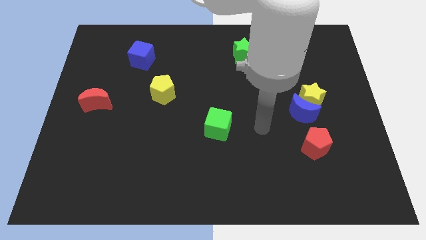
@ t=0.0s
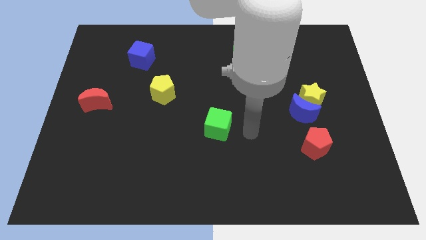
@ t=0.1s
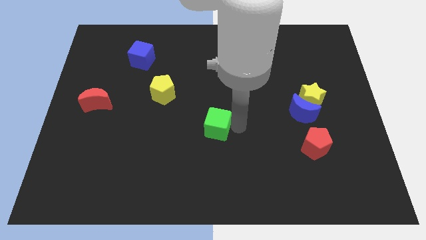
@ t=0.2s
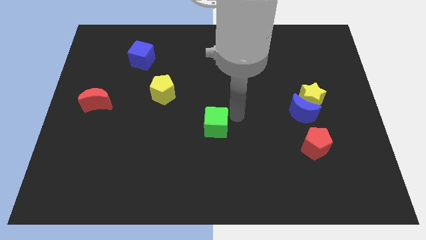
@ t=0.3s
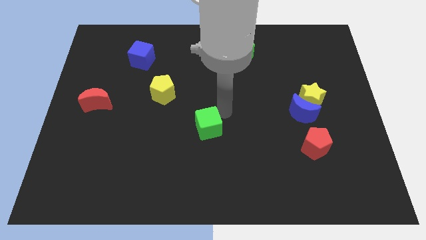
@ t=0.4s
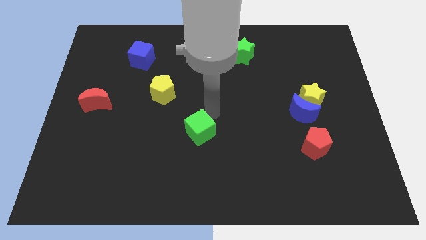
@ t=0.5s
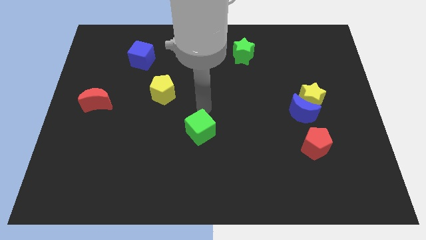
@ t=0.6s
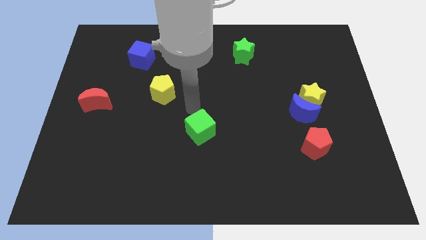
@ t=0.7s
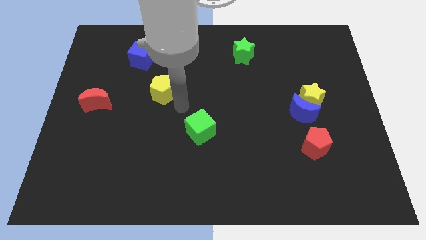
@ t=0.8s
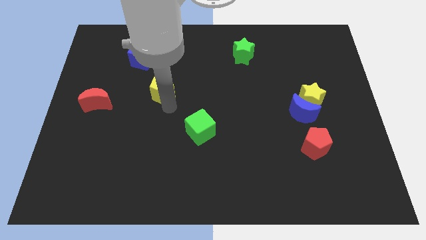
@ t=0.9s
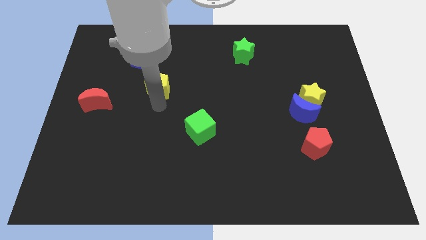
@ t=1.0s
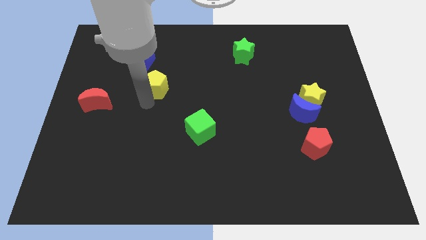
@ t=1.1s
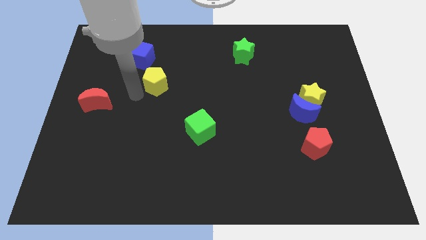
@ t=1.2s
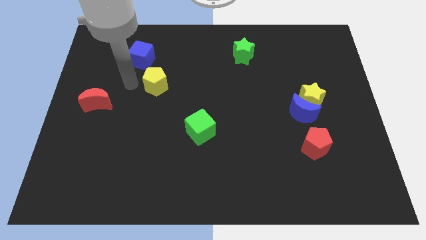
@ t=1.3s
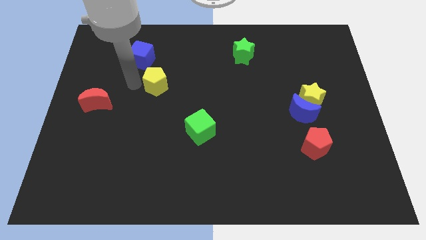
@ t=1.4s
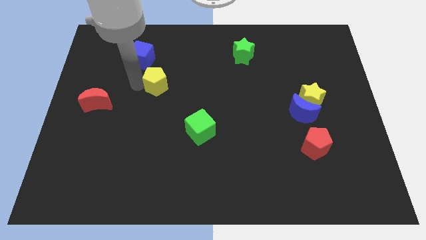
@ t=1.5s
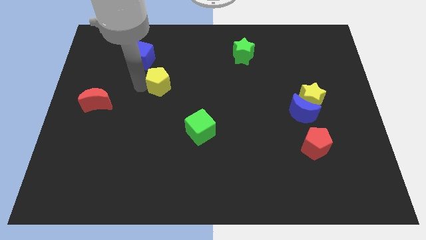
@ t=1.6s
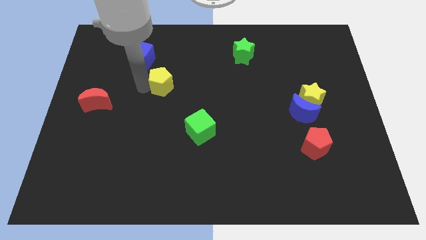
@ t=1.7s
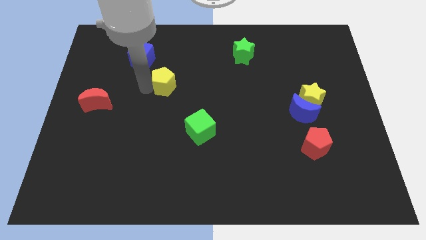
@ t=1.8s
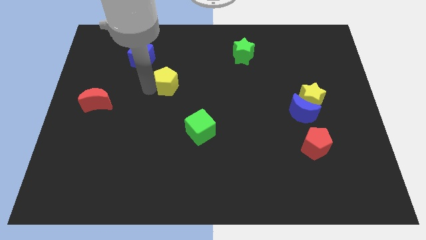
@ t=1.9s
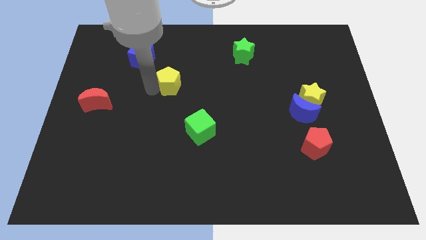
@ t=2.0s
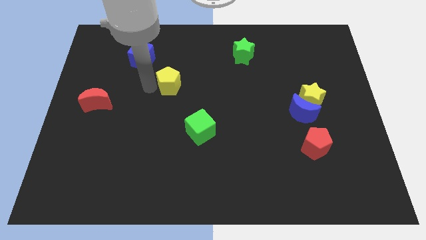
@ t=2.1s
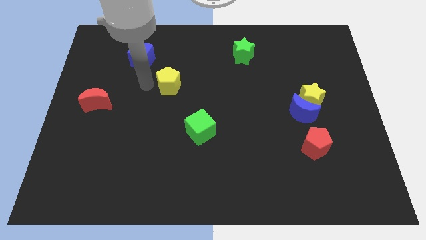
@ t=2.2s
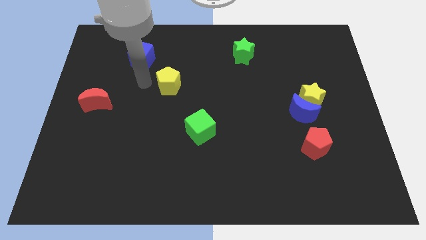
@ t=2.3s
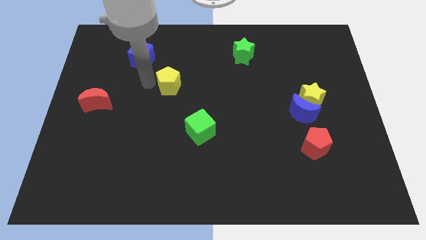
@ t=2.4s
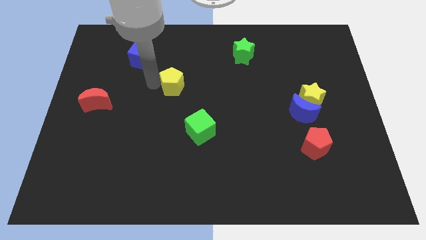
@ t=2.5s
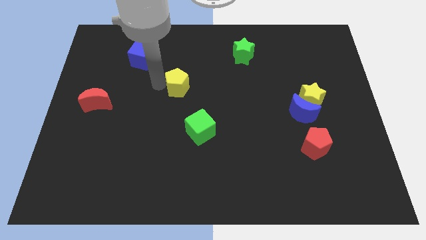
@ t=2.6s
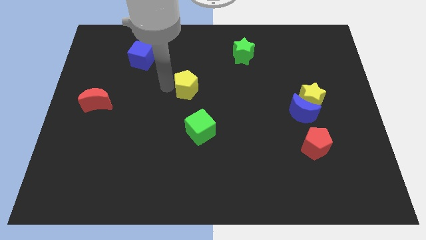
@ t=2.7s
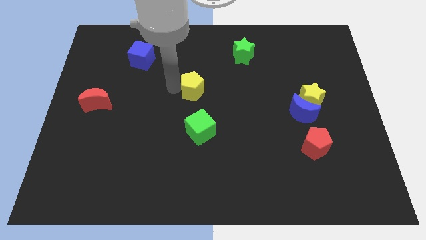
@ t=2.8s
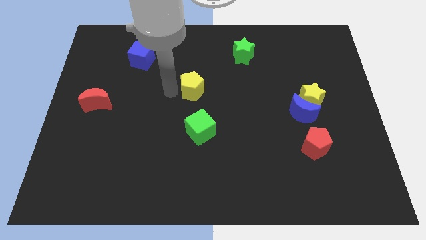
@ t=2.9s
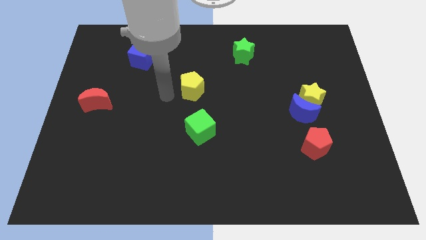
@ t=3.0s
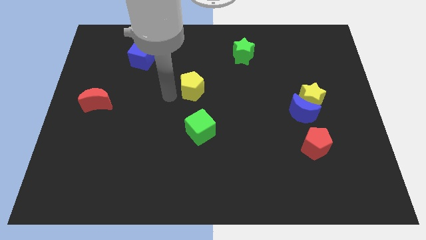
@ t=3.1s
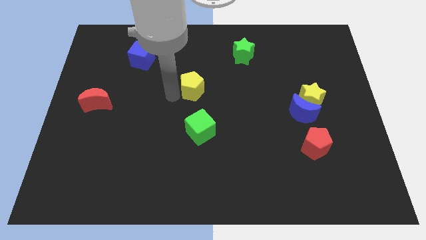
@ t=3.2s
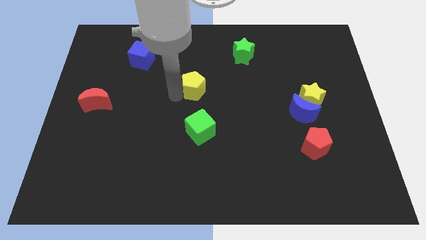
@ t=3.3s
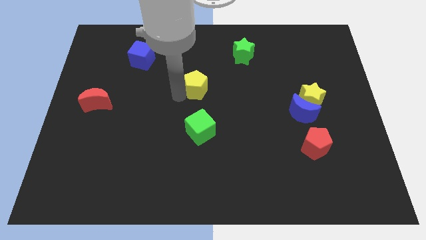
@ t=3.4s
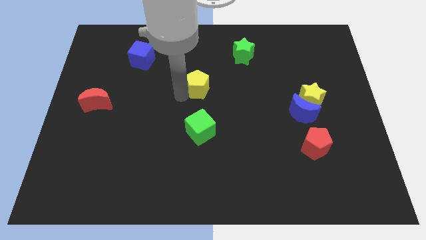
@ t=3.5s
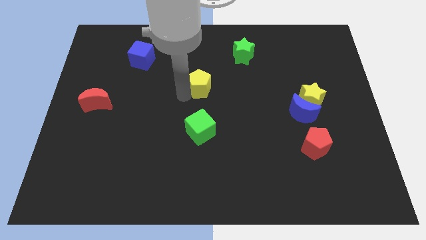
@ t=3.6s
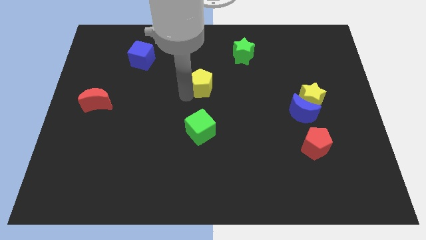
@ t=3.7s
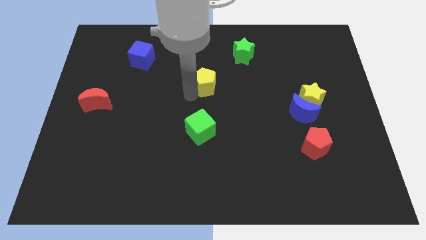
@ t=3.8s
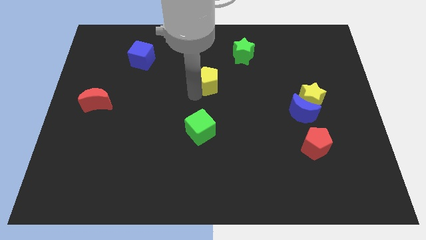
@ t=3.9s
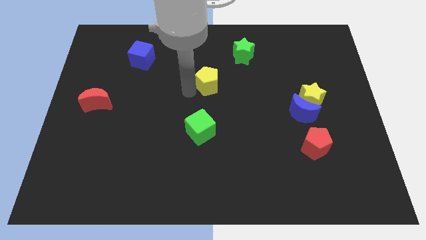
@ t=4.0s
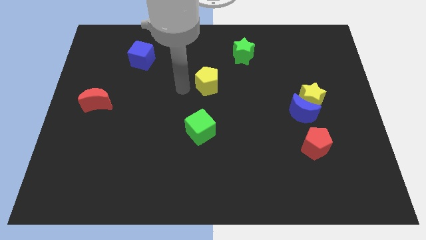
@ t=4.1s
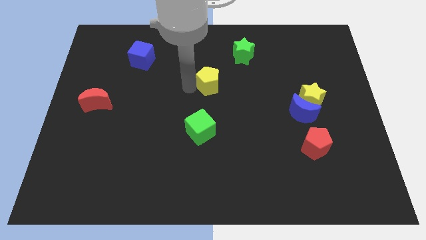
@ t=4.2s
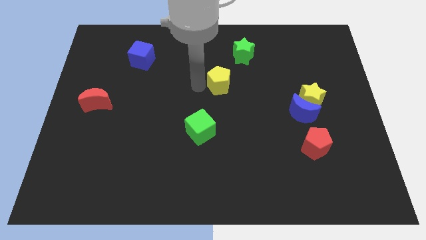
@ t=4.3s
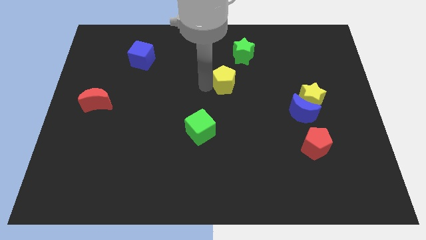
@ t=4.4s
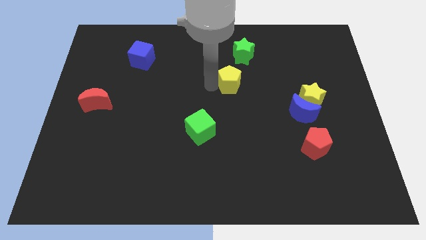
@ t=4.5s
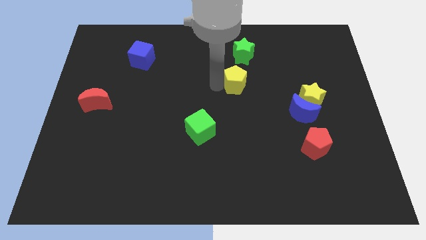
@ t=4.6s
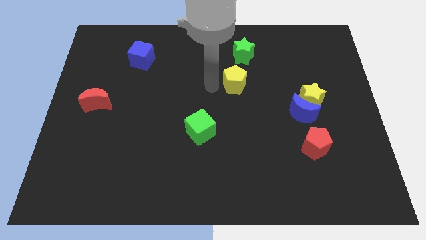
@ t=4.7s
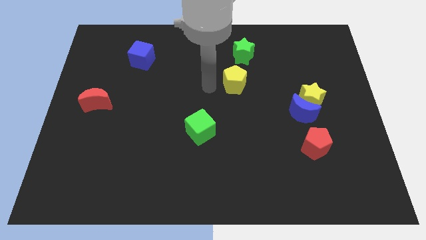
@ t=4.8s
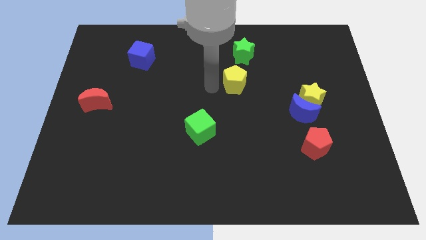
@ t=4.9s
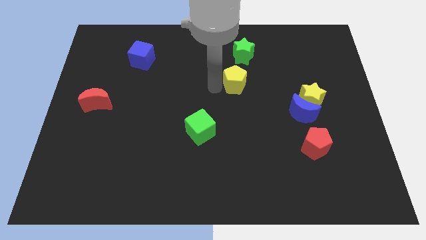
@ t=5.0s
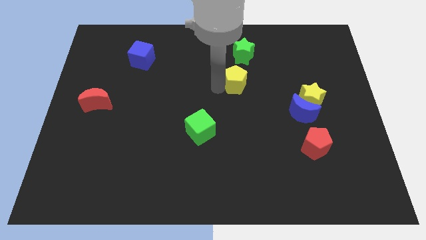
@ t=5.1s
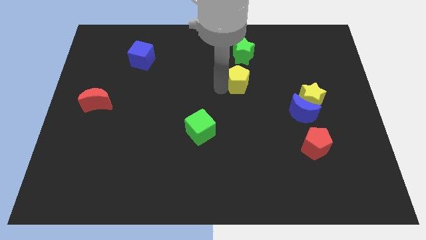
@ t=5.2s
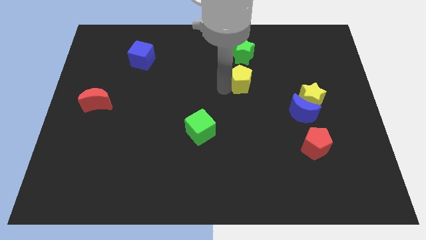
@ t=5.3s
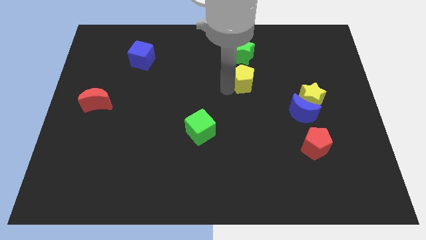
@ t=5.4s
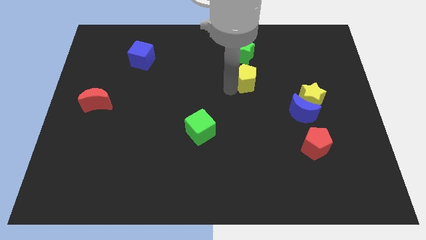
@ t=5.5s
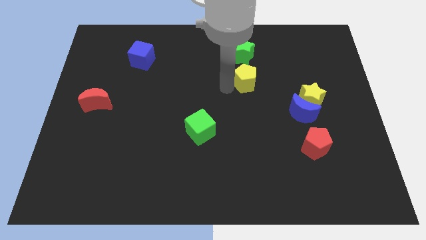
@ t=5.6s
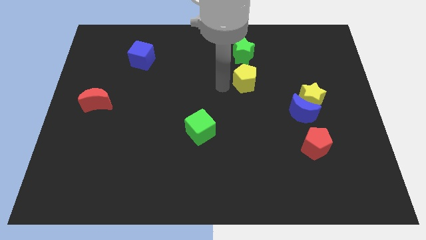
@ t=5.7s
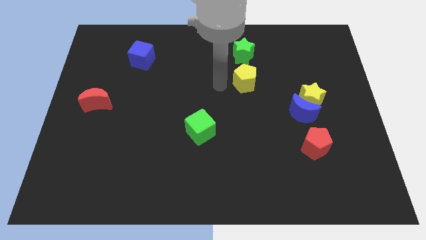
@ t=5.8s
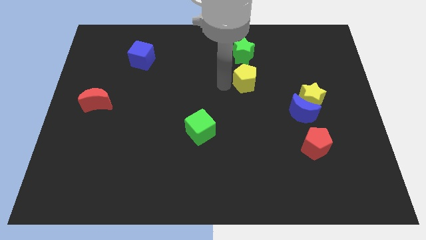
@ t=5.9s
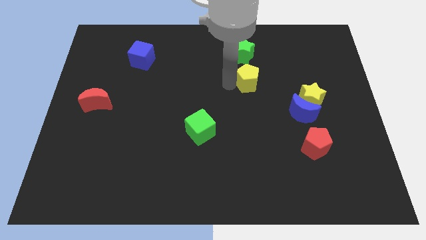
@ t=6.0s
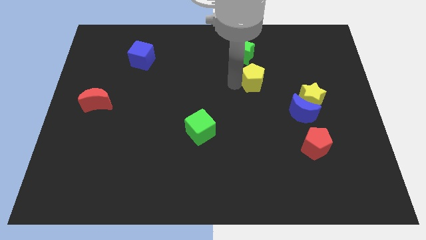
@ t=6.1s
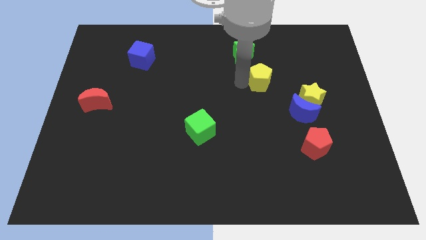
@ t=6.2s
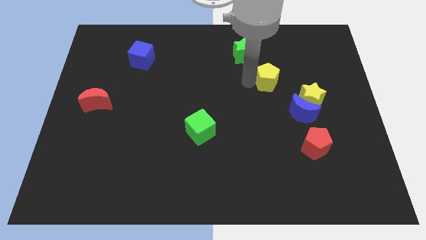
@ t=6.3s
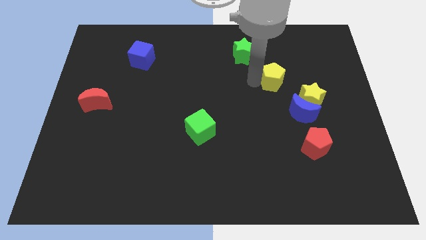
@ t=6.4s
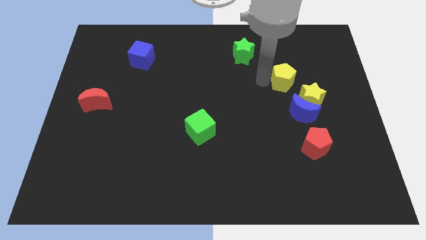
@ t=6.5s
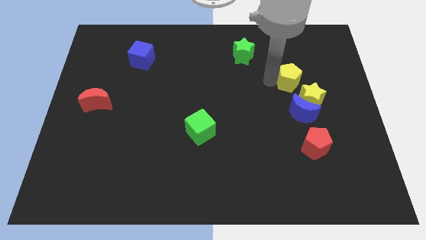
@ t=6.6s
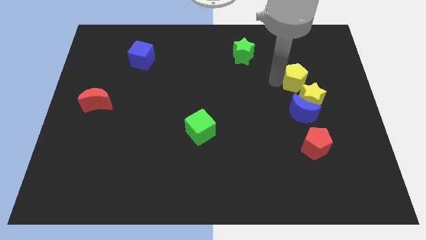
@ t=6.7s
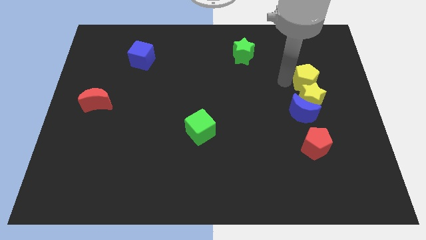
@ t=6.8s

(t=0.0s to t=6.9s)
put the yellow pentagon diagonally up and to the right of the yellow star
